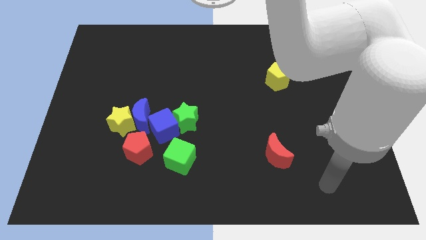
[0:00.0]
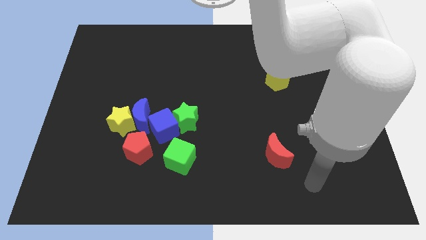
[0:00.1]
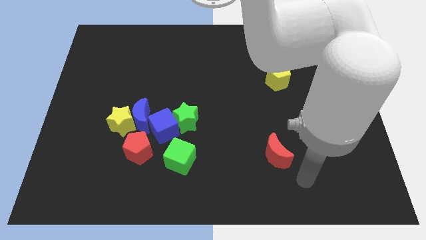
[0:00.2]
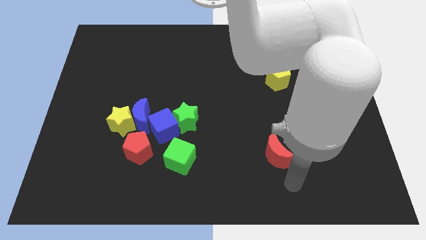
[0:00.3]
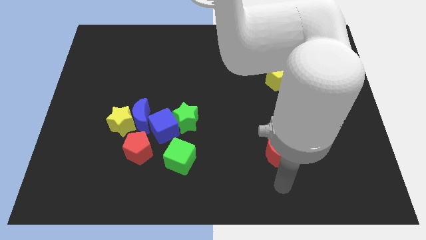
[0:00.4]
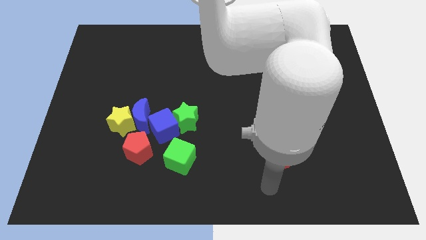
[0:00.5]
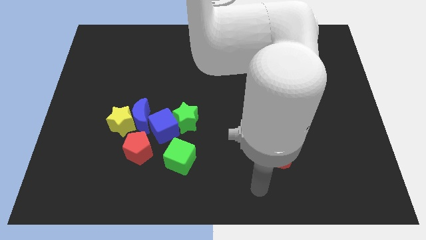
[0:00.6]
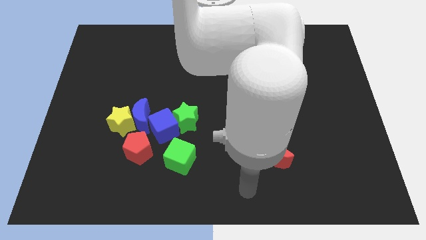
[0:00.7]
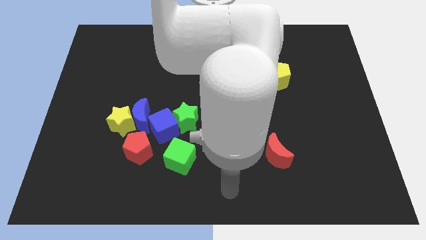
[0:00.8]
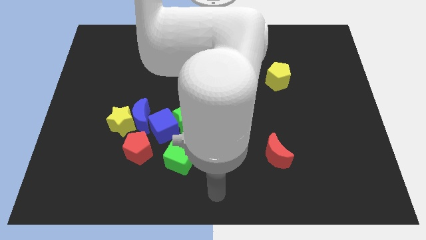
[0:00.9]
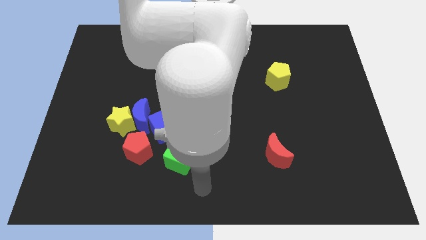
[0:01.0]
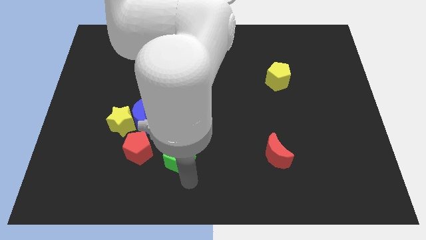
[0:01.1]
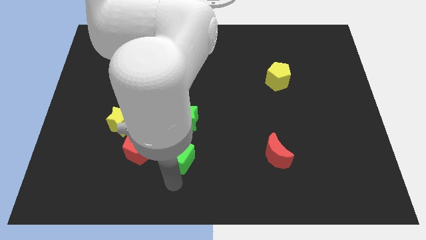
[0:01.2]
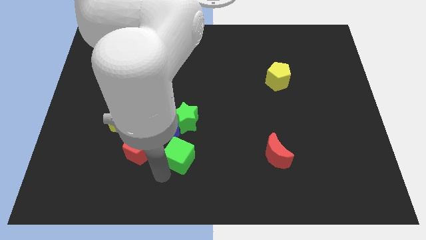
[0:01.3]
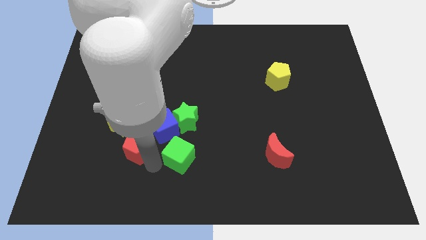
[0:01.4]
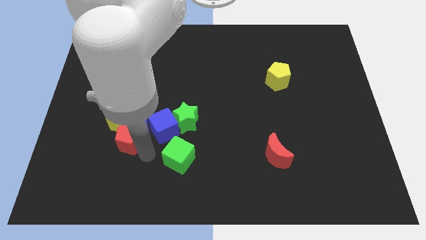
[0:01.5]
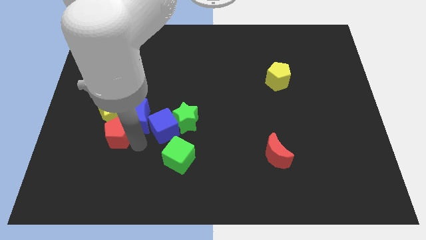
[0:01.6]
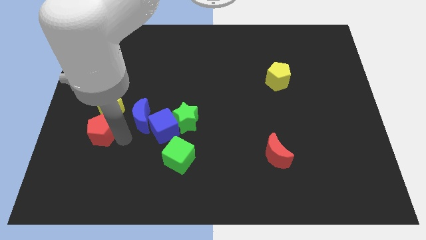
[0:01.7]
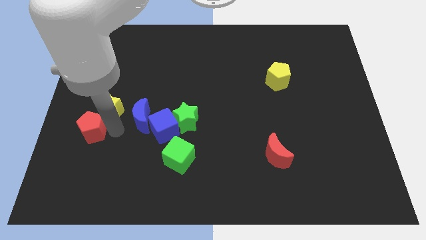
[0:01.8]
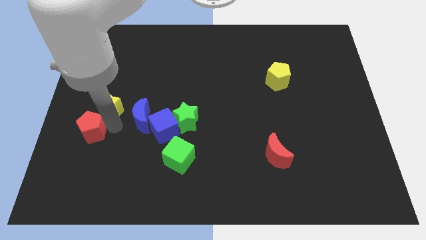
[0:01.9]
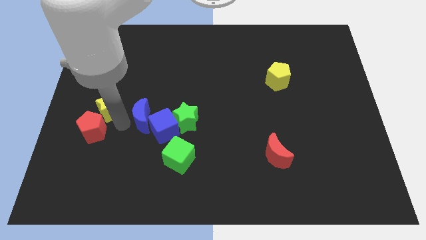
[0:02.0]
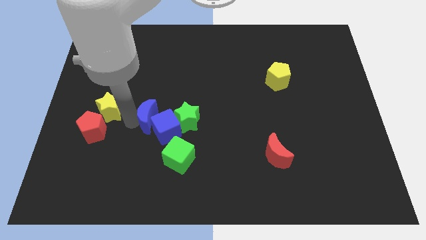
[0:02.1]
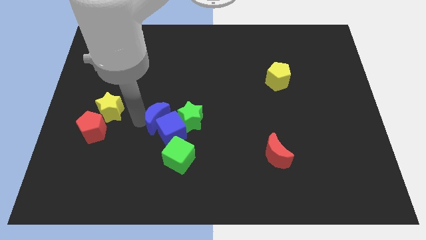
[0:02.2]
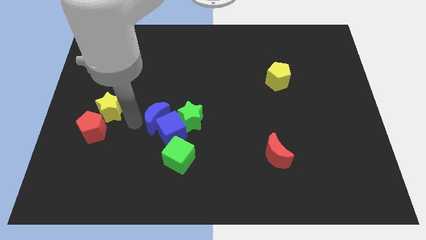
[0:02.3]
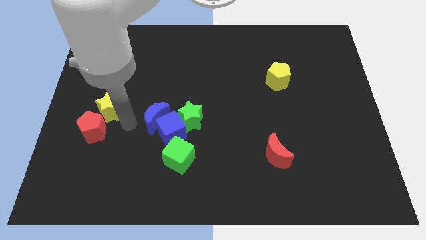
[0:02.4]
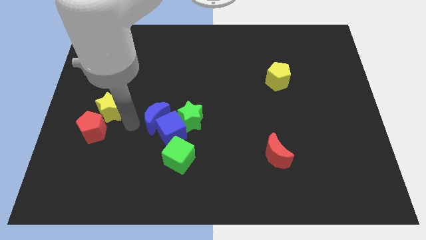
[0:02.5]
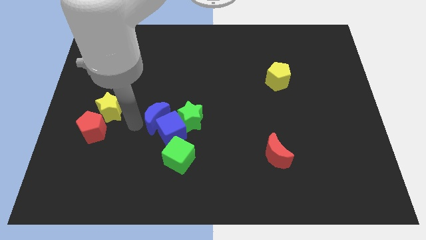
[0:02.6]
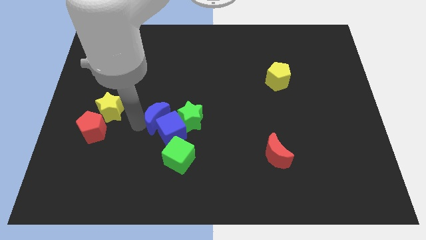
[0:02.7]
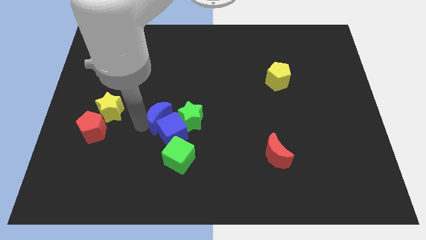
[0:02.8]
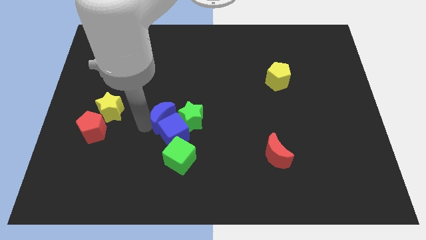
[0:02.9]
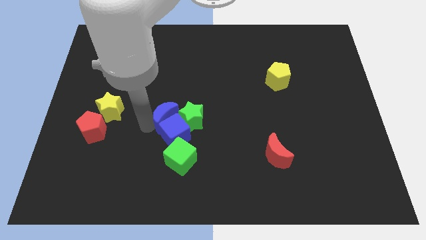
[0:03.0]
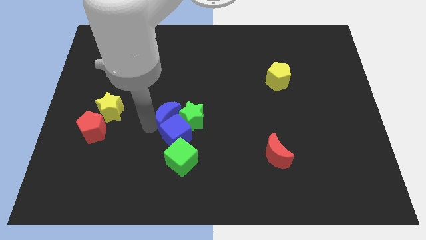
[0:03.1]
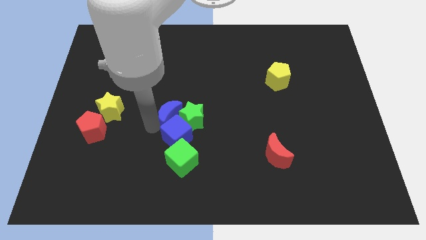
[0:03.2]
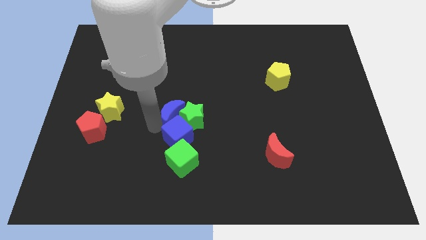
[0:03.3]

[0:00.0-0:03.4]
pull the blue moon apart from the yellow star, blue cube, and red pentagon

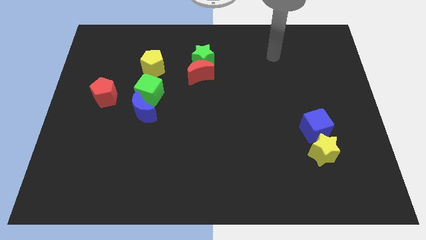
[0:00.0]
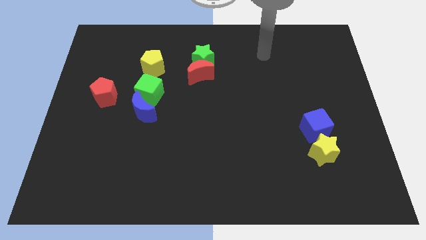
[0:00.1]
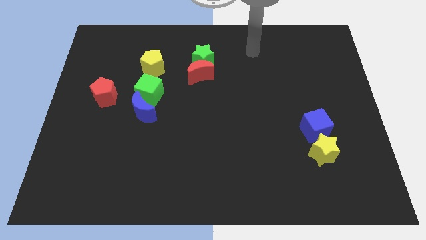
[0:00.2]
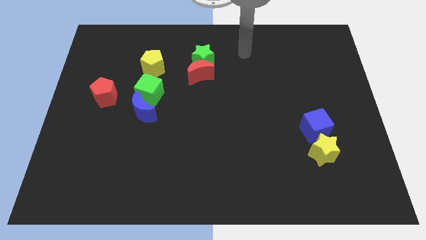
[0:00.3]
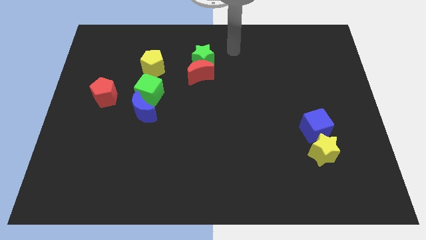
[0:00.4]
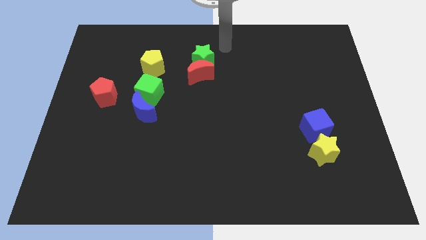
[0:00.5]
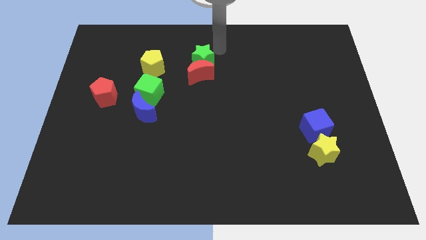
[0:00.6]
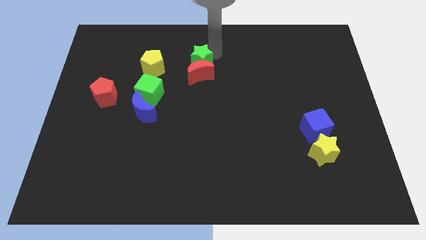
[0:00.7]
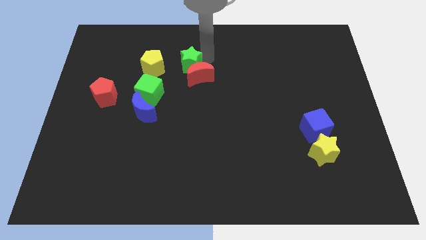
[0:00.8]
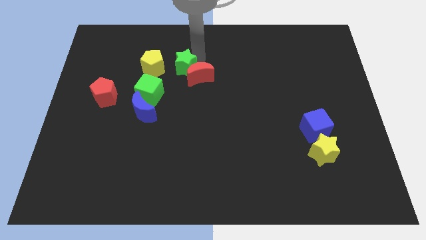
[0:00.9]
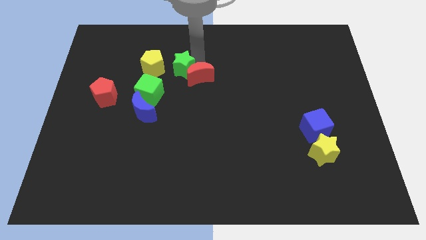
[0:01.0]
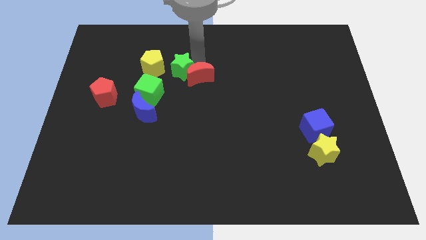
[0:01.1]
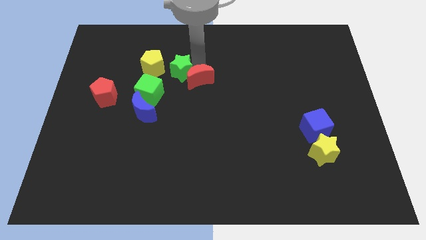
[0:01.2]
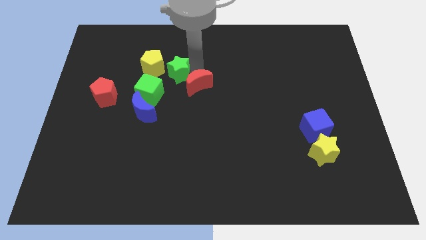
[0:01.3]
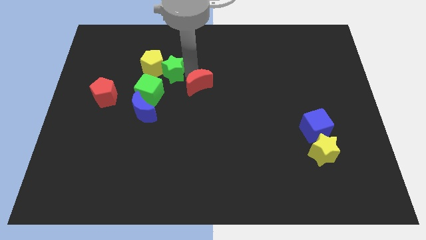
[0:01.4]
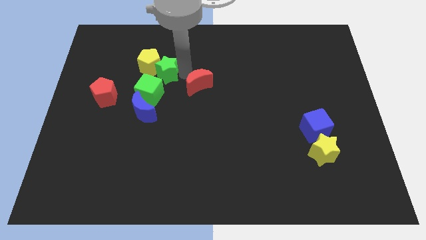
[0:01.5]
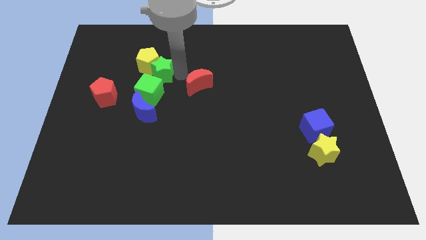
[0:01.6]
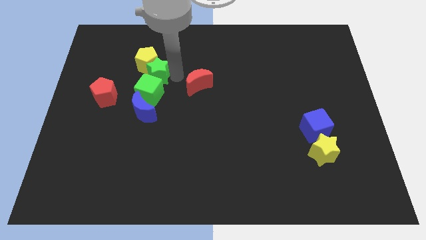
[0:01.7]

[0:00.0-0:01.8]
pull the red moon apart from the green star

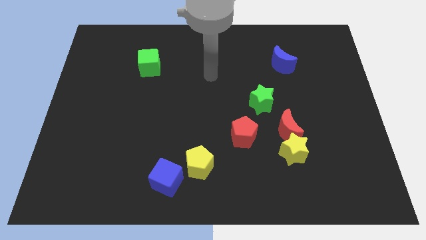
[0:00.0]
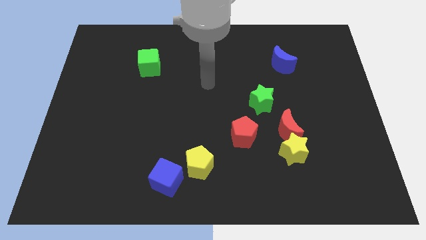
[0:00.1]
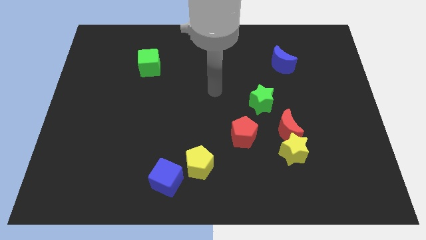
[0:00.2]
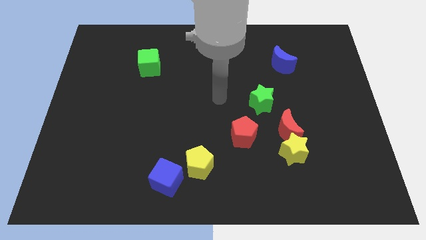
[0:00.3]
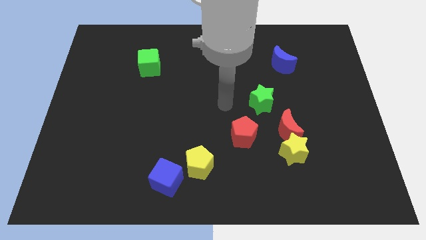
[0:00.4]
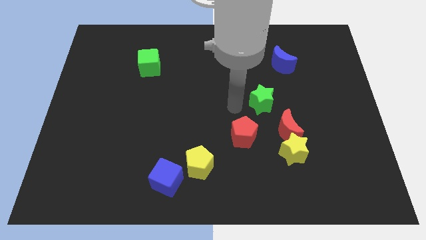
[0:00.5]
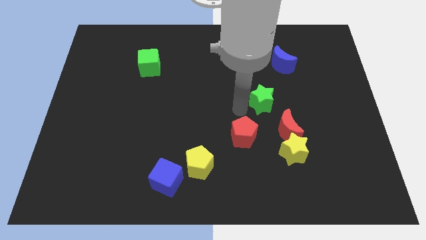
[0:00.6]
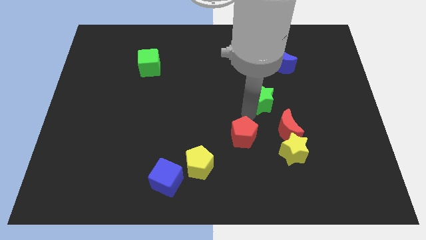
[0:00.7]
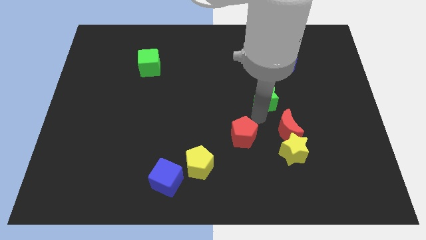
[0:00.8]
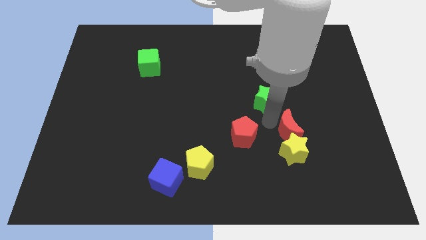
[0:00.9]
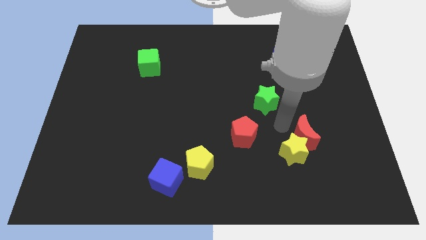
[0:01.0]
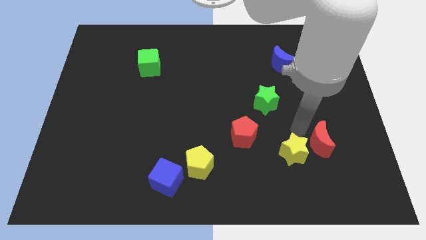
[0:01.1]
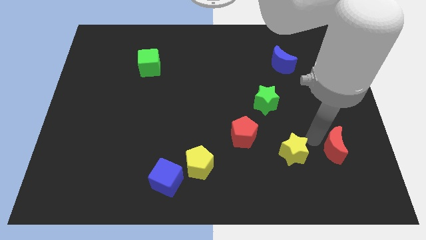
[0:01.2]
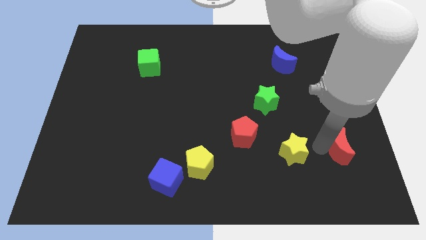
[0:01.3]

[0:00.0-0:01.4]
separate the yellow star from the red moon

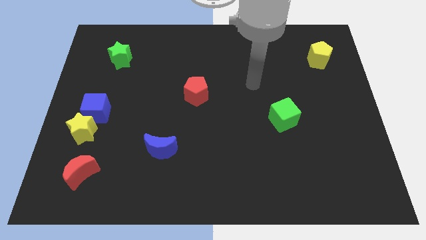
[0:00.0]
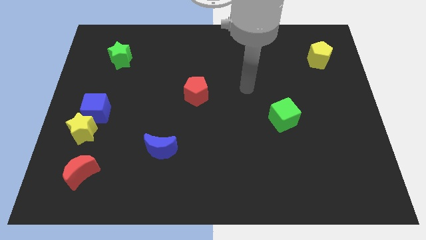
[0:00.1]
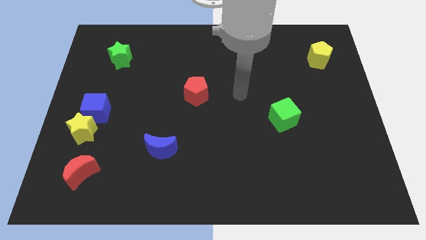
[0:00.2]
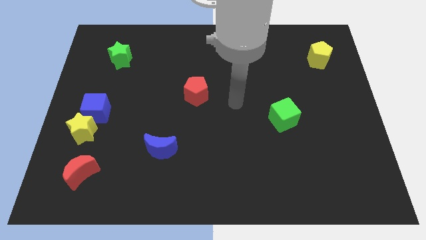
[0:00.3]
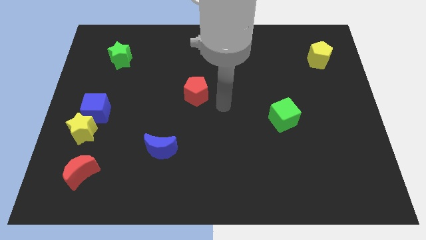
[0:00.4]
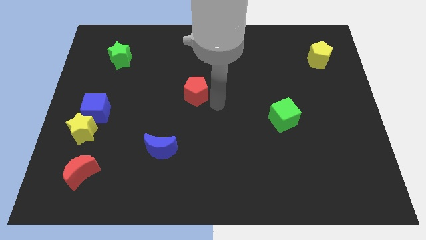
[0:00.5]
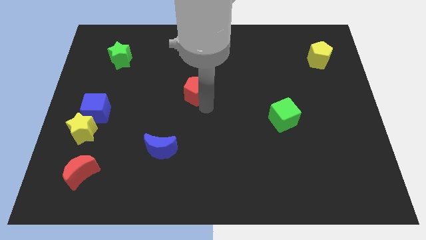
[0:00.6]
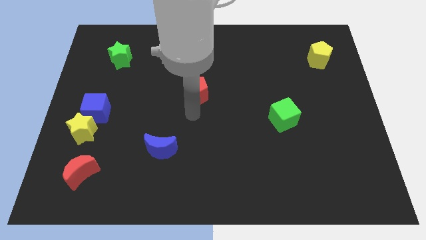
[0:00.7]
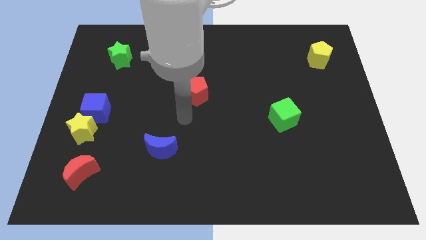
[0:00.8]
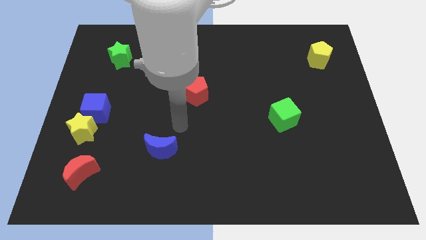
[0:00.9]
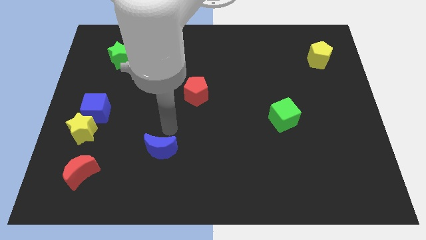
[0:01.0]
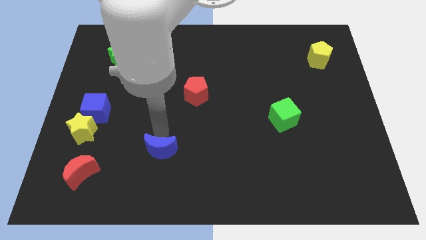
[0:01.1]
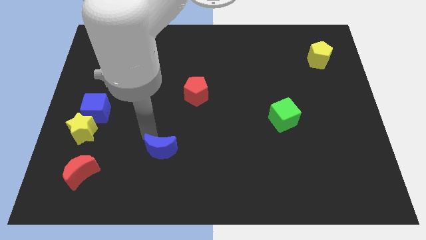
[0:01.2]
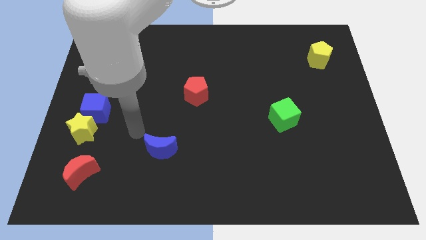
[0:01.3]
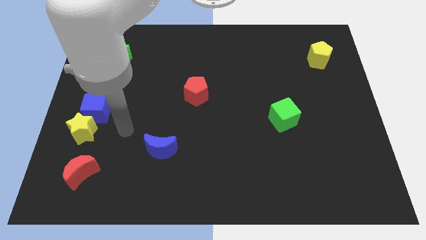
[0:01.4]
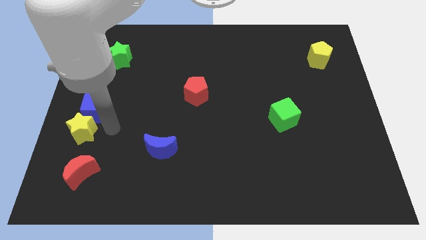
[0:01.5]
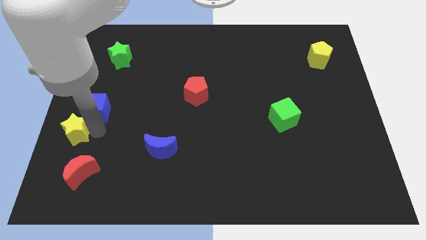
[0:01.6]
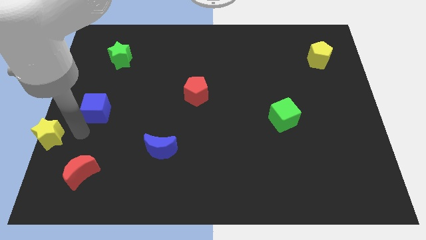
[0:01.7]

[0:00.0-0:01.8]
separate the blue cube from the yellow star

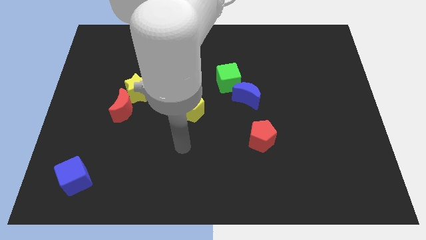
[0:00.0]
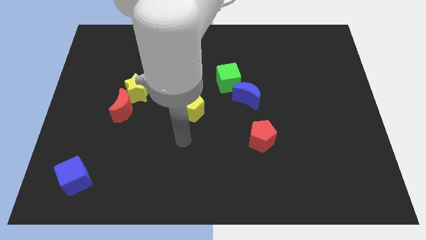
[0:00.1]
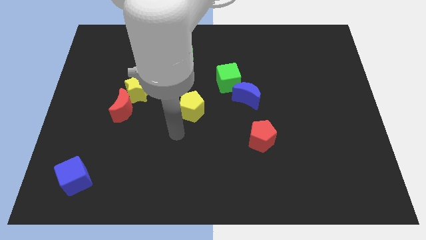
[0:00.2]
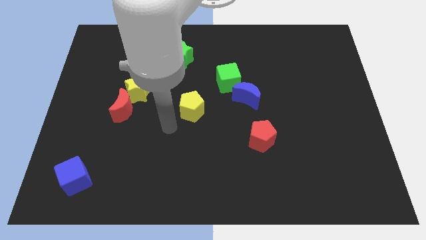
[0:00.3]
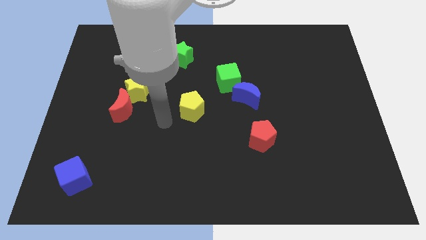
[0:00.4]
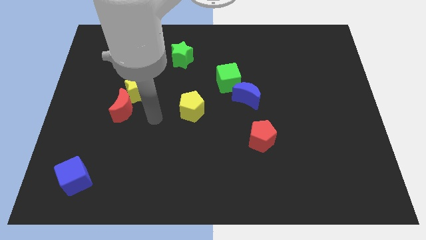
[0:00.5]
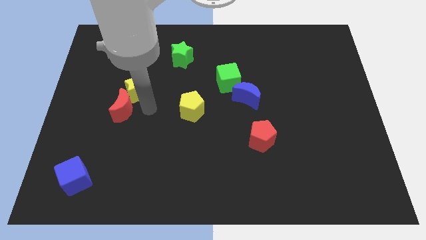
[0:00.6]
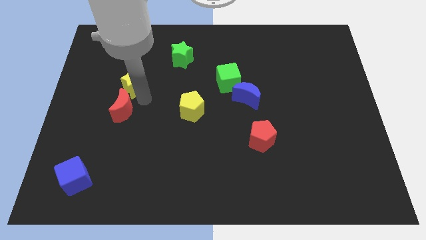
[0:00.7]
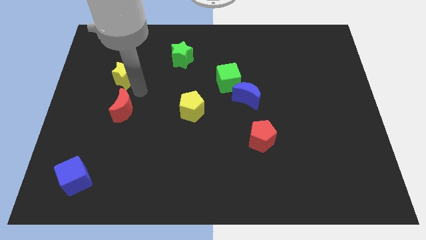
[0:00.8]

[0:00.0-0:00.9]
pull the red moon apart from the yellow star
